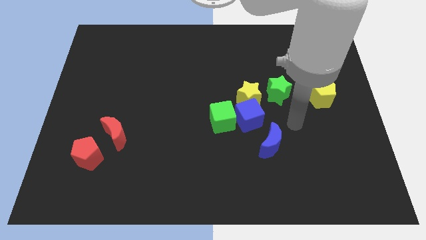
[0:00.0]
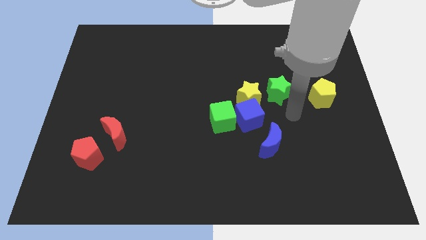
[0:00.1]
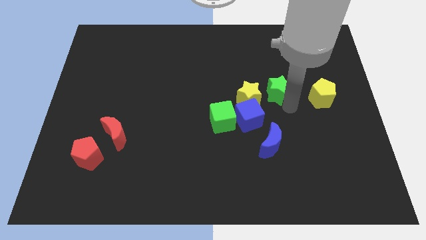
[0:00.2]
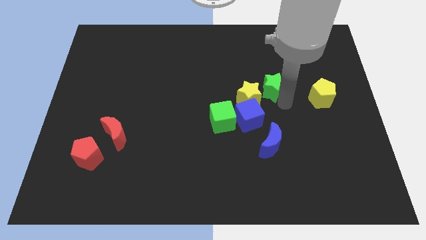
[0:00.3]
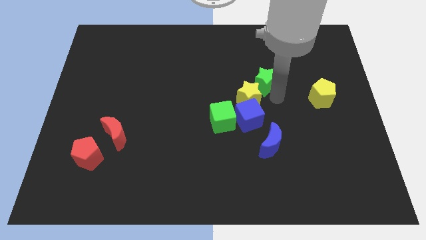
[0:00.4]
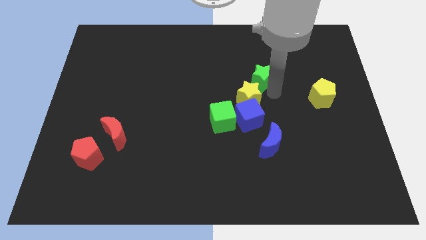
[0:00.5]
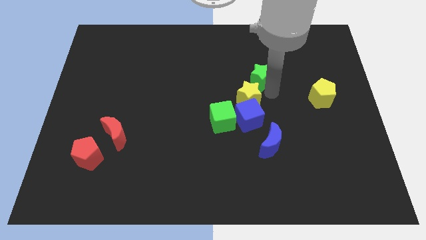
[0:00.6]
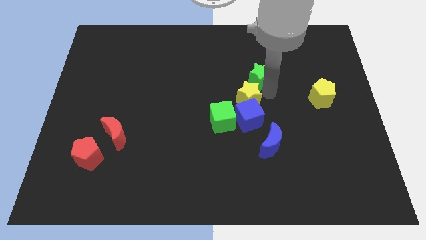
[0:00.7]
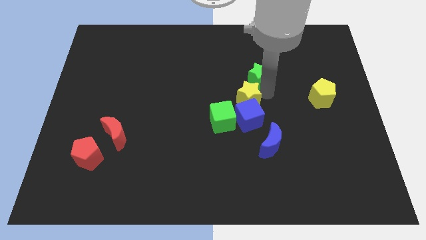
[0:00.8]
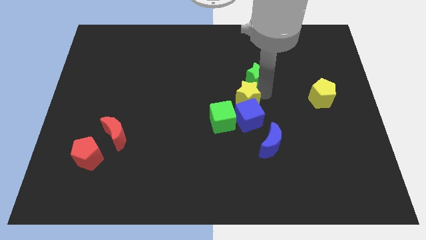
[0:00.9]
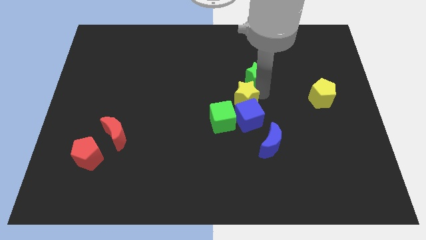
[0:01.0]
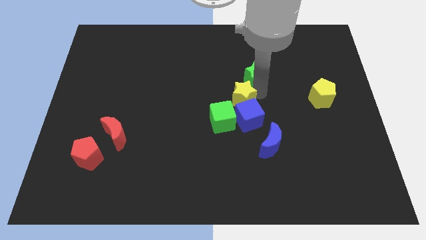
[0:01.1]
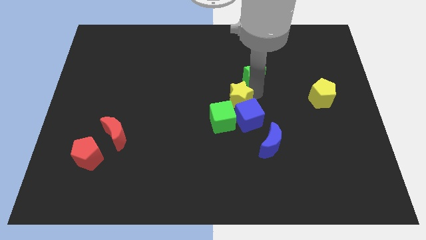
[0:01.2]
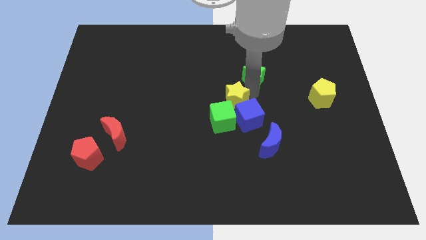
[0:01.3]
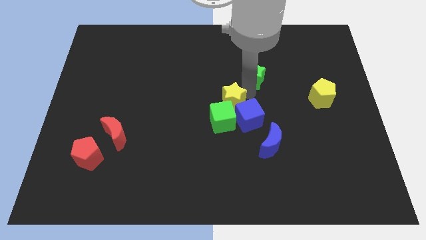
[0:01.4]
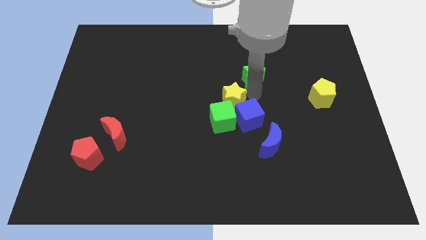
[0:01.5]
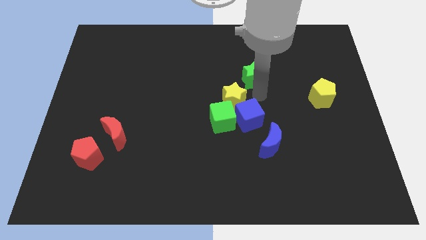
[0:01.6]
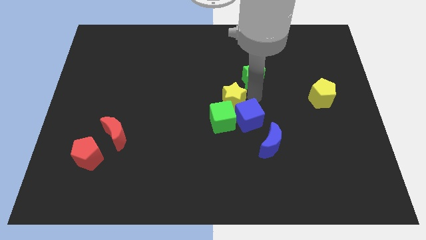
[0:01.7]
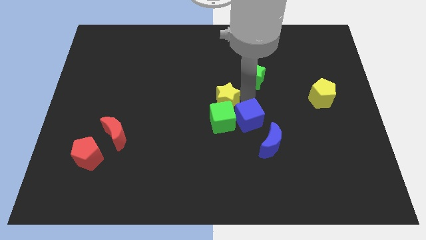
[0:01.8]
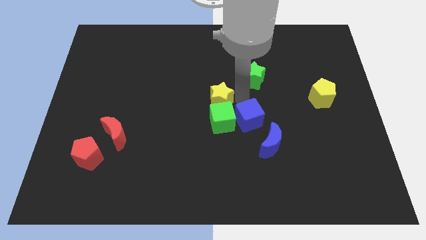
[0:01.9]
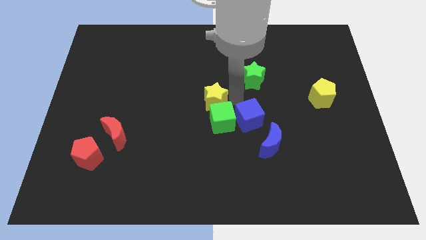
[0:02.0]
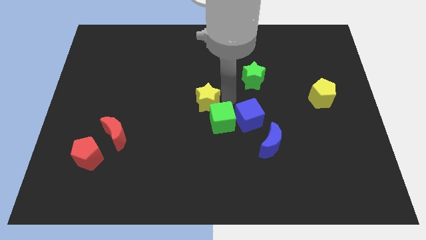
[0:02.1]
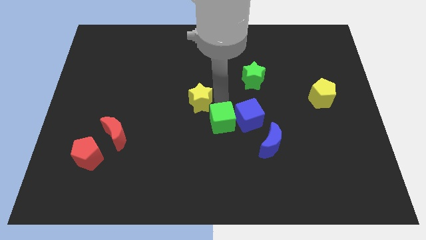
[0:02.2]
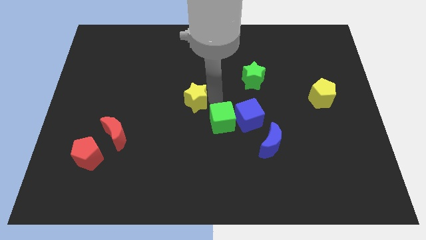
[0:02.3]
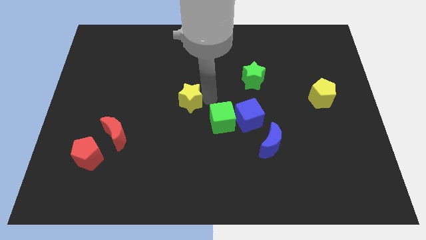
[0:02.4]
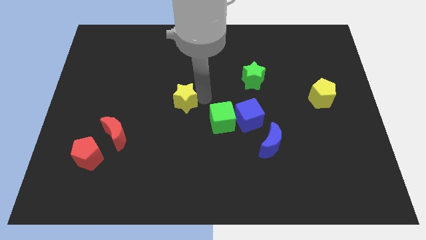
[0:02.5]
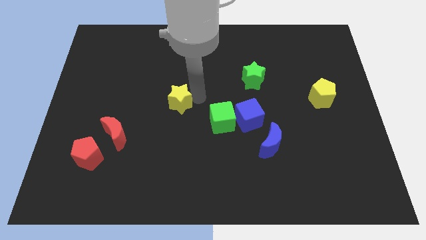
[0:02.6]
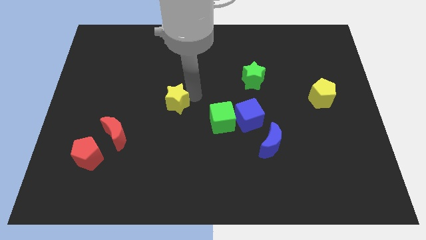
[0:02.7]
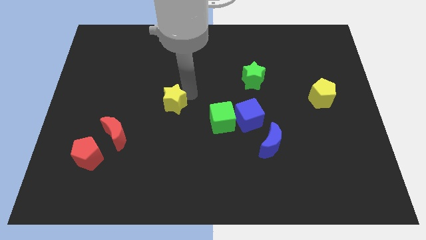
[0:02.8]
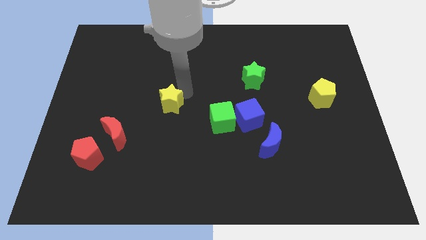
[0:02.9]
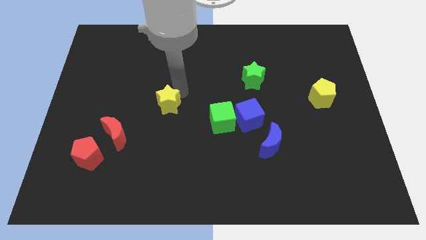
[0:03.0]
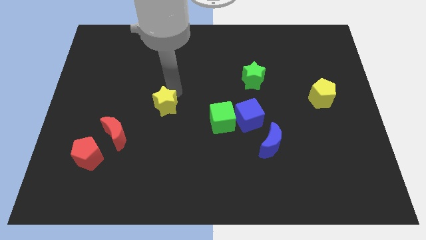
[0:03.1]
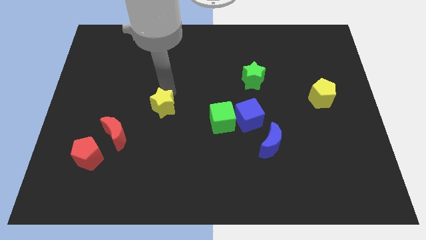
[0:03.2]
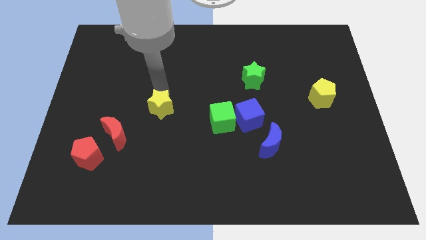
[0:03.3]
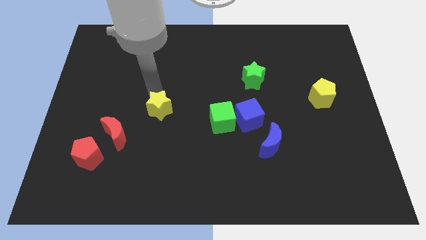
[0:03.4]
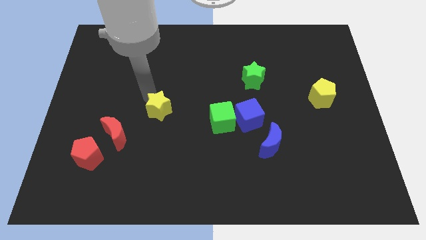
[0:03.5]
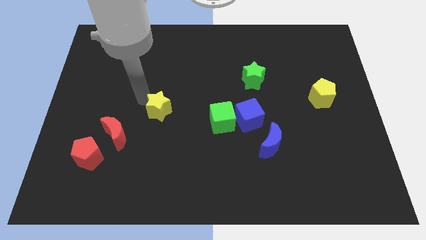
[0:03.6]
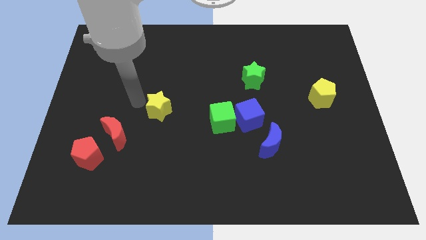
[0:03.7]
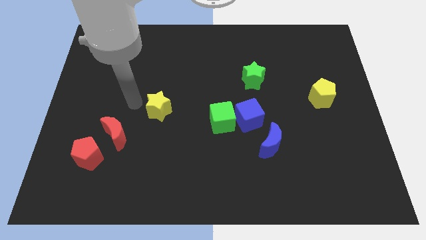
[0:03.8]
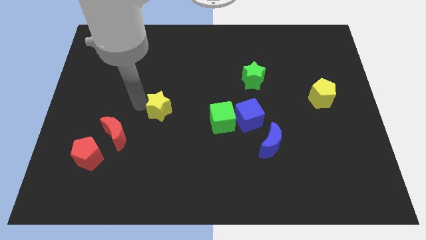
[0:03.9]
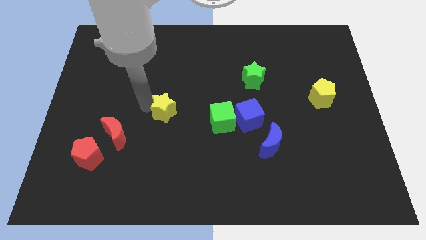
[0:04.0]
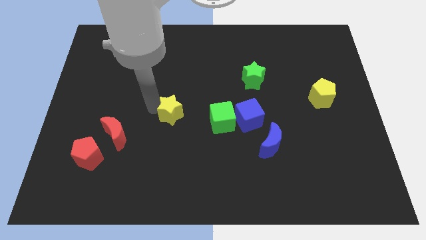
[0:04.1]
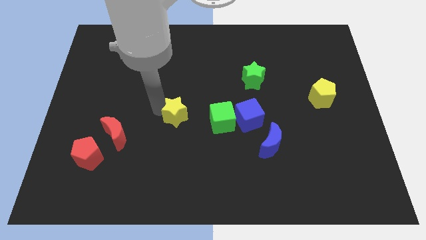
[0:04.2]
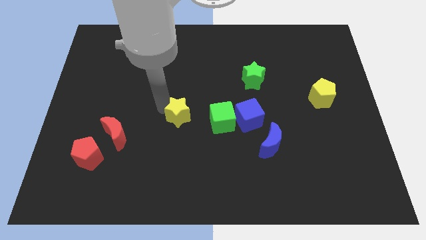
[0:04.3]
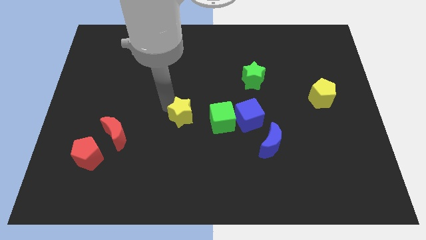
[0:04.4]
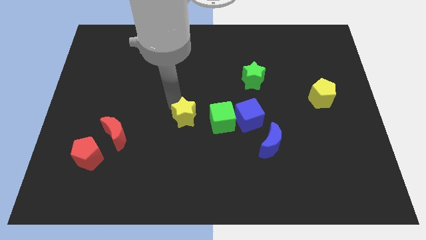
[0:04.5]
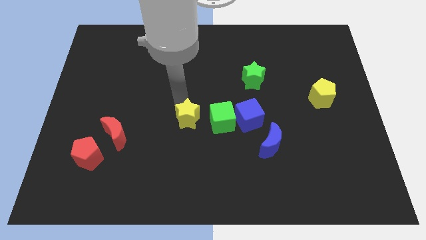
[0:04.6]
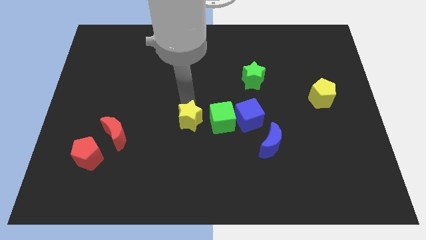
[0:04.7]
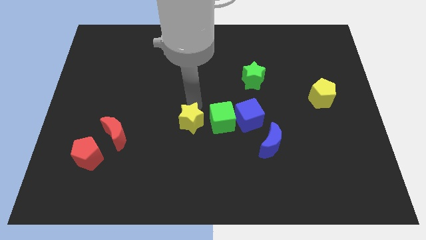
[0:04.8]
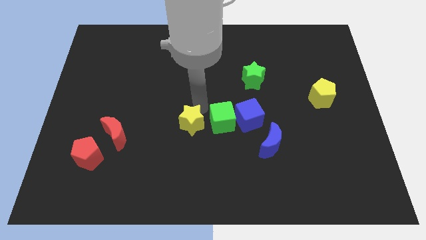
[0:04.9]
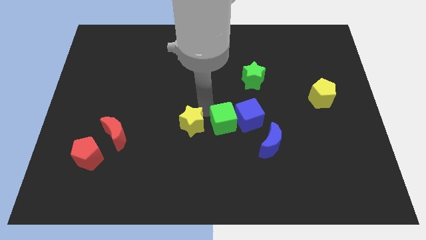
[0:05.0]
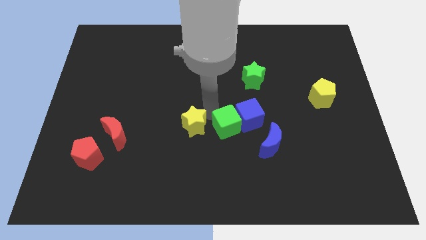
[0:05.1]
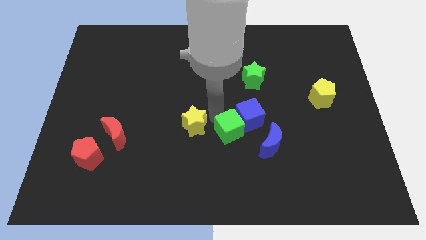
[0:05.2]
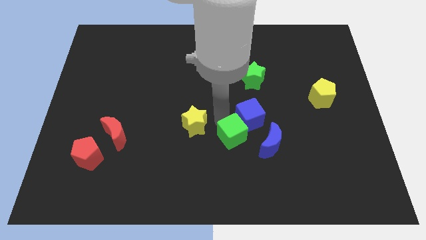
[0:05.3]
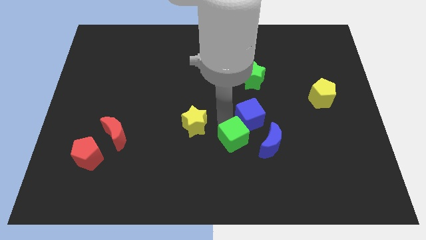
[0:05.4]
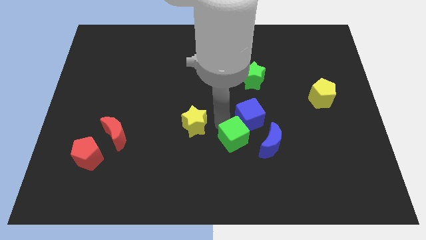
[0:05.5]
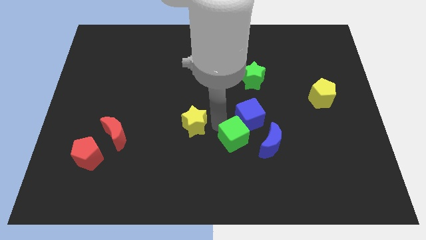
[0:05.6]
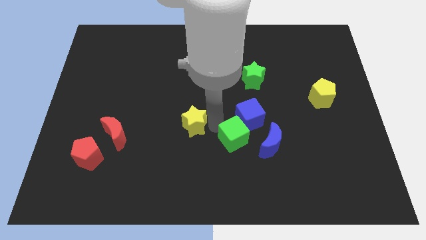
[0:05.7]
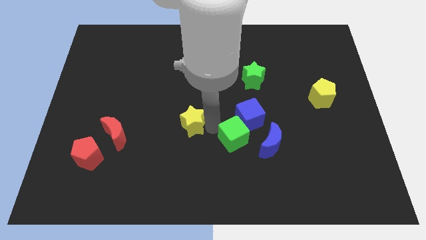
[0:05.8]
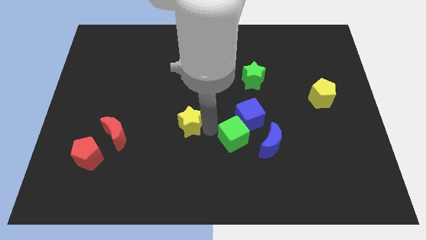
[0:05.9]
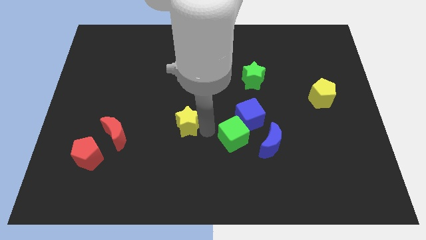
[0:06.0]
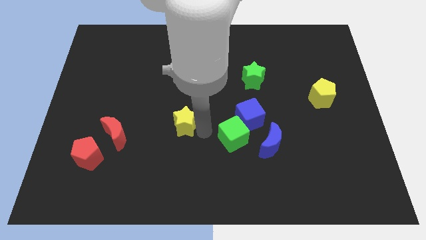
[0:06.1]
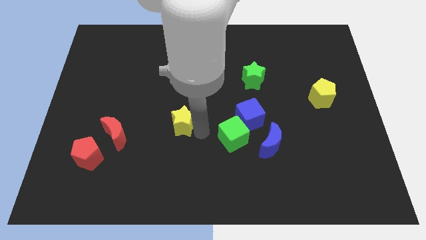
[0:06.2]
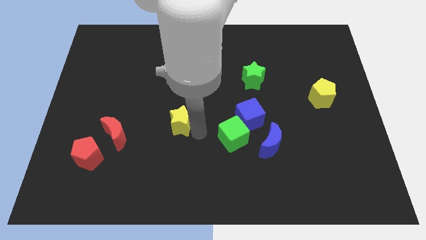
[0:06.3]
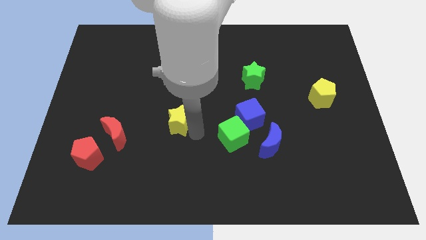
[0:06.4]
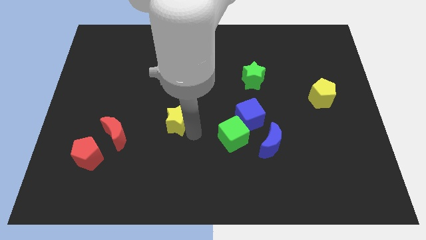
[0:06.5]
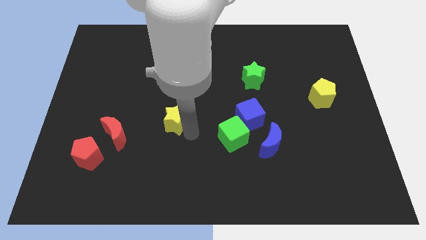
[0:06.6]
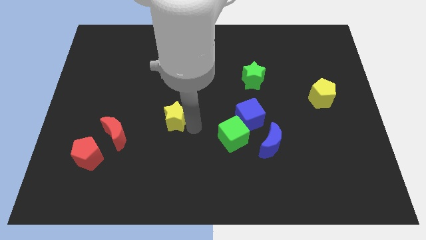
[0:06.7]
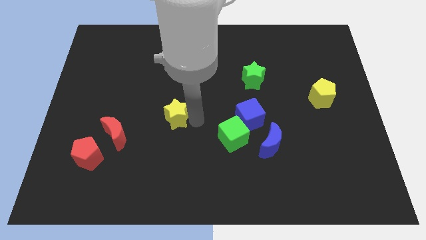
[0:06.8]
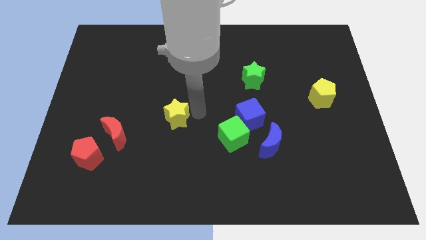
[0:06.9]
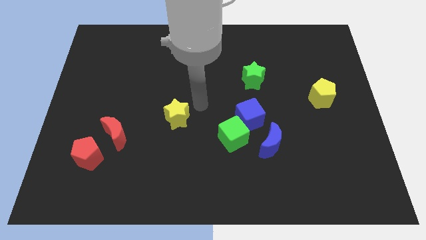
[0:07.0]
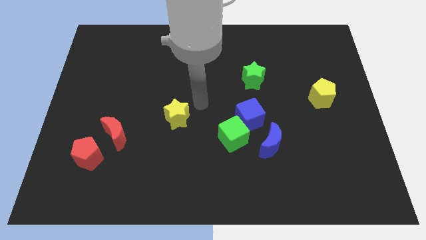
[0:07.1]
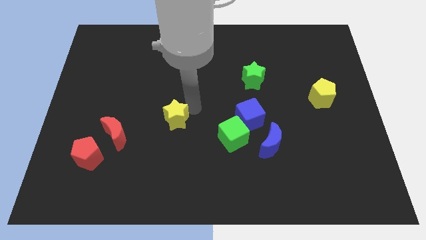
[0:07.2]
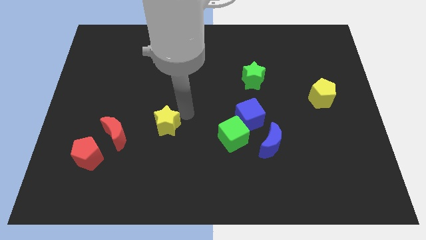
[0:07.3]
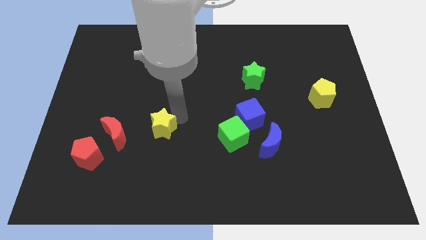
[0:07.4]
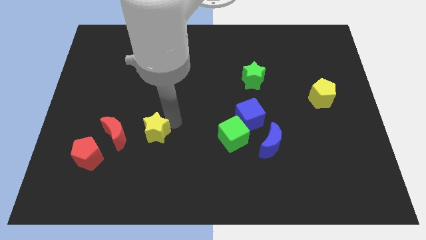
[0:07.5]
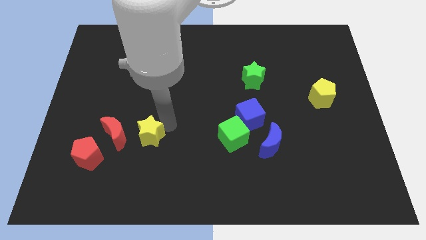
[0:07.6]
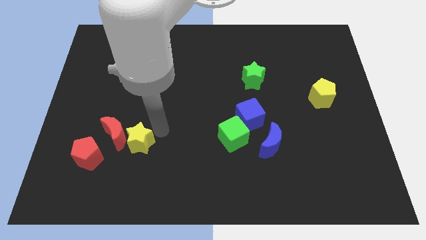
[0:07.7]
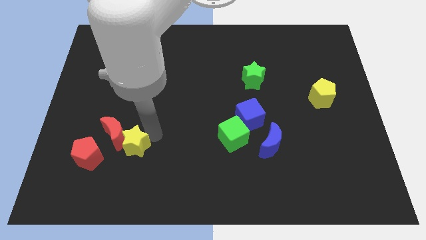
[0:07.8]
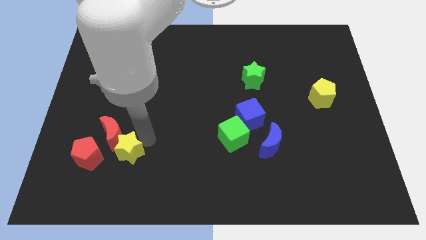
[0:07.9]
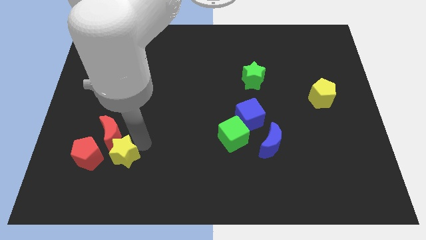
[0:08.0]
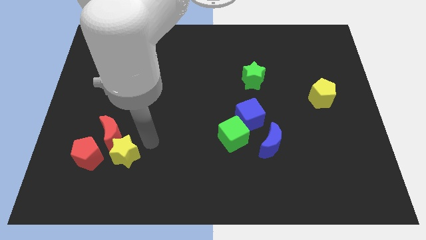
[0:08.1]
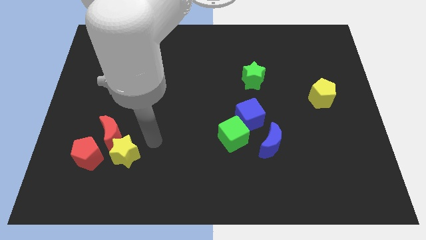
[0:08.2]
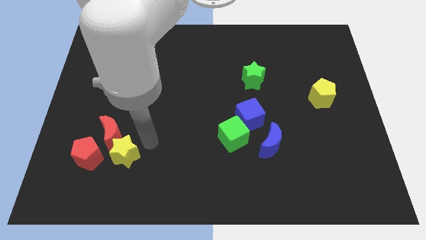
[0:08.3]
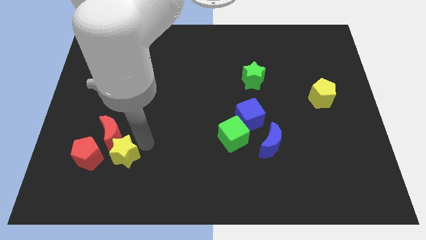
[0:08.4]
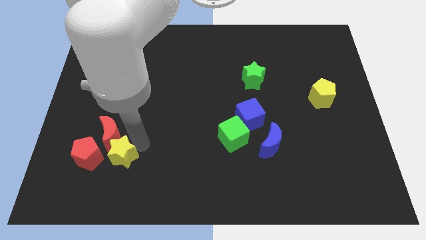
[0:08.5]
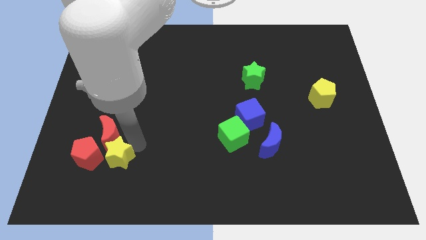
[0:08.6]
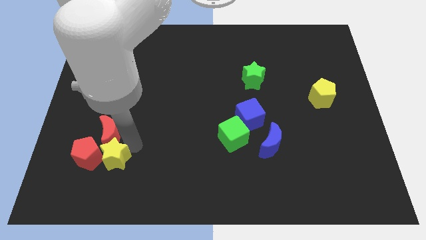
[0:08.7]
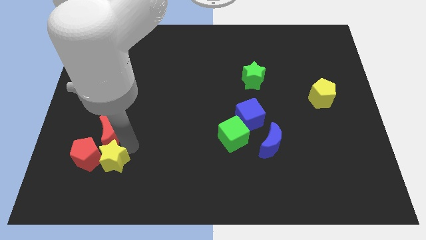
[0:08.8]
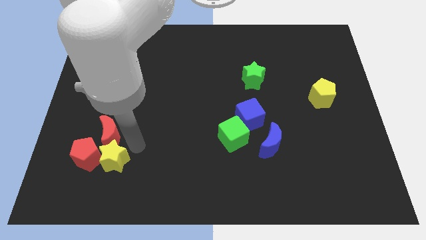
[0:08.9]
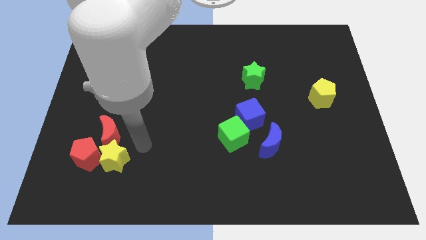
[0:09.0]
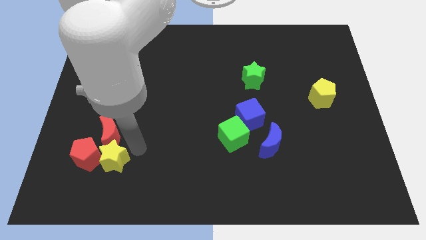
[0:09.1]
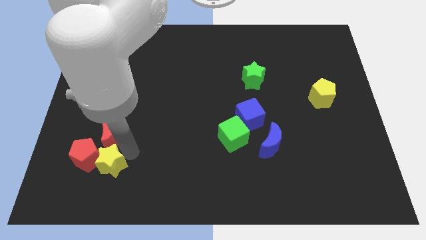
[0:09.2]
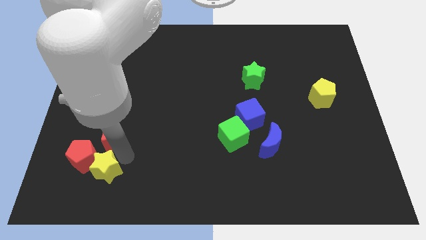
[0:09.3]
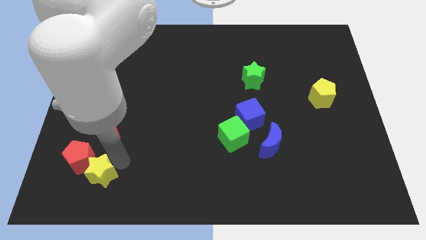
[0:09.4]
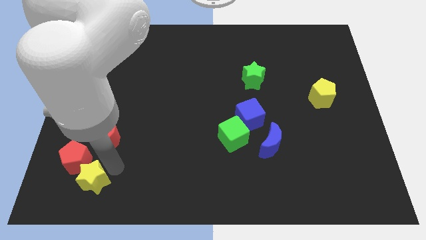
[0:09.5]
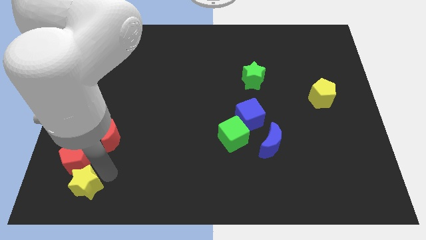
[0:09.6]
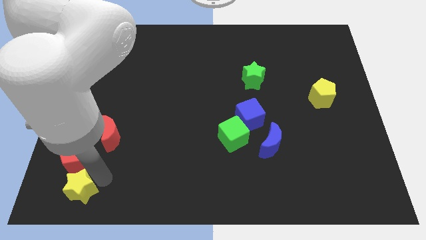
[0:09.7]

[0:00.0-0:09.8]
push the yellow star to the lower left corner
